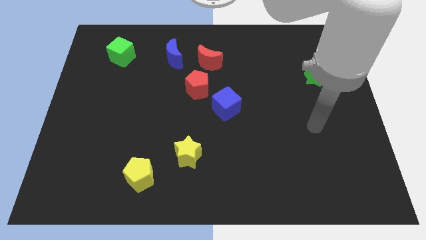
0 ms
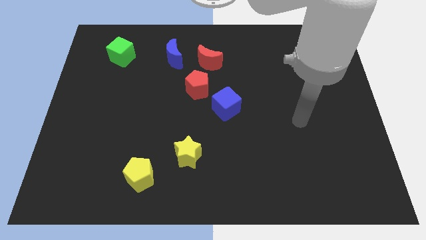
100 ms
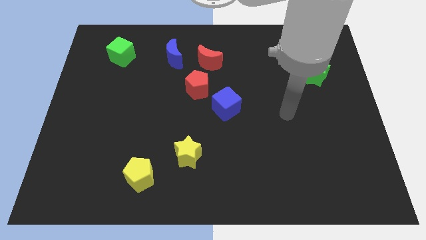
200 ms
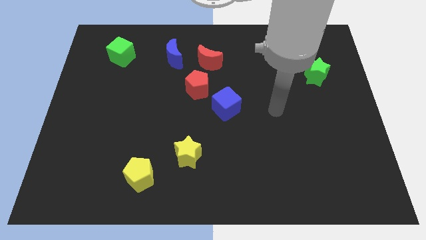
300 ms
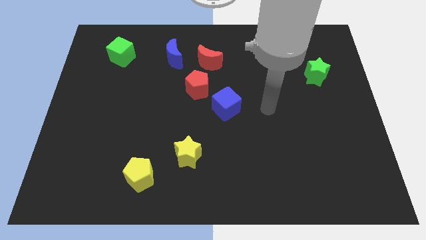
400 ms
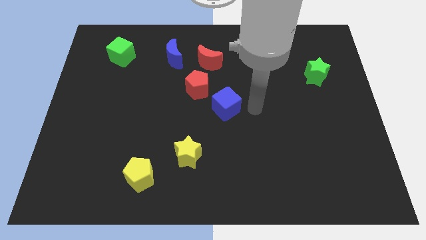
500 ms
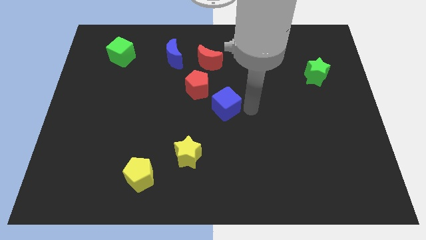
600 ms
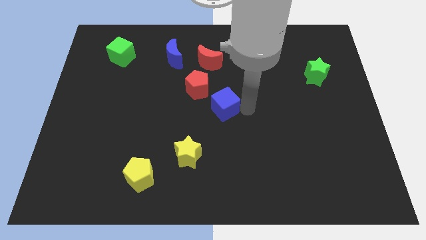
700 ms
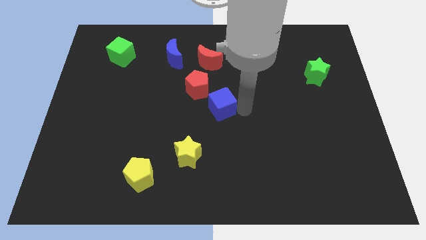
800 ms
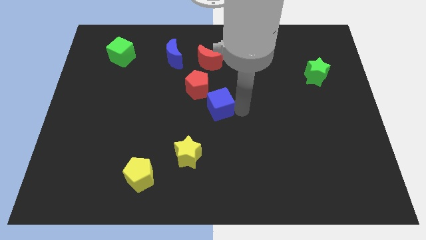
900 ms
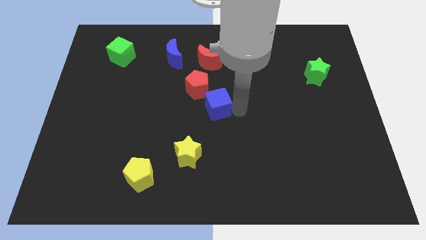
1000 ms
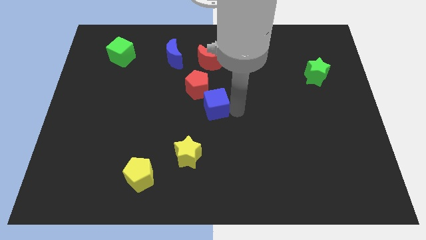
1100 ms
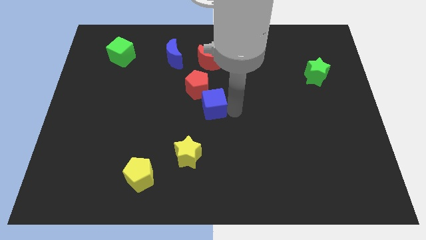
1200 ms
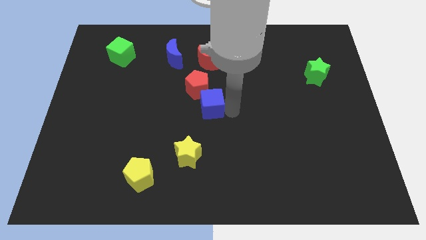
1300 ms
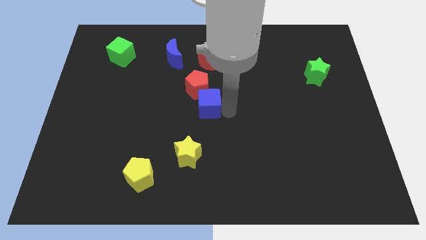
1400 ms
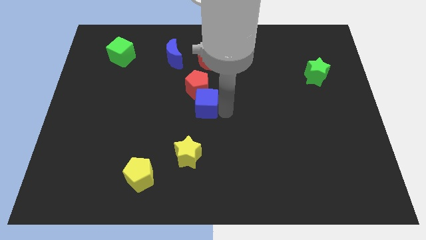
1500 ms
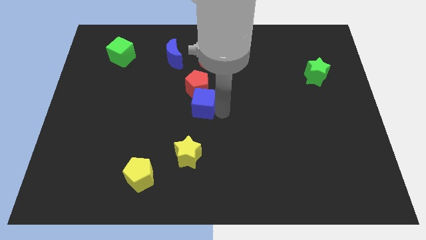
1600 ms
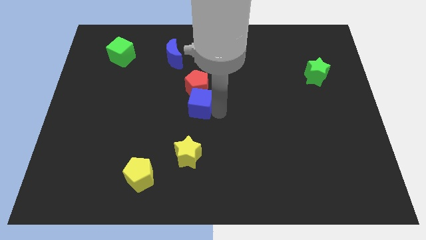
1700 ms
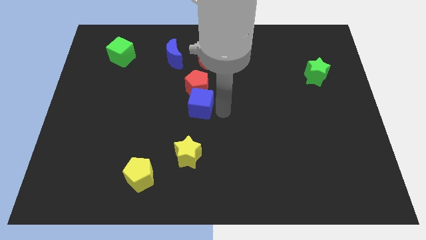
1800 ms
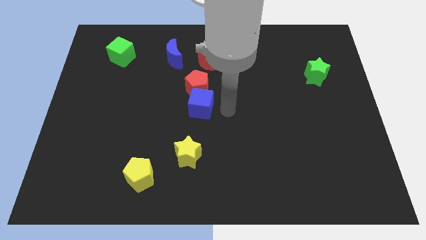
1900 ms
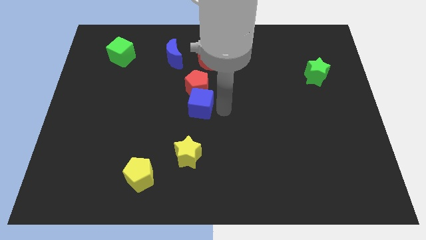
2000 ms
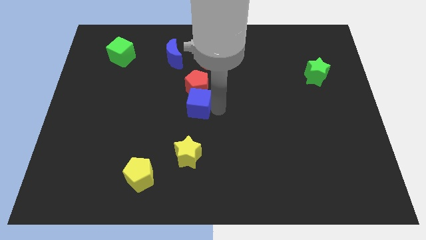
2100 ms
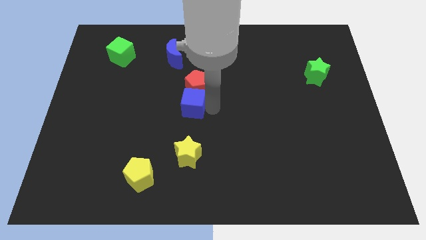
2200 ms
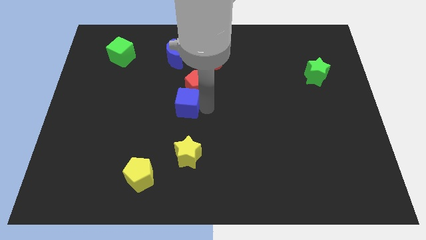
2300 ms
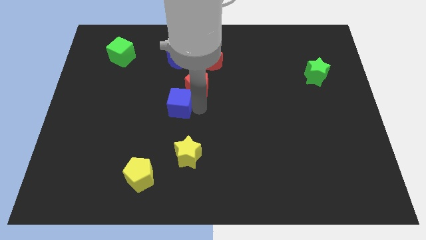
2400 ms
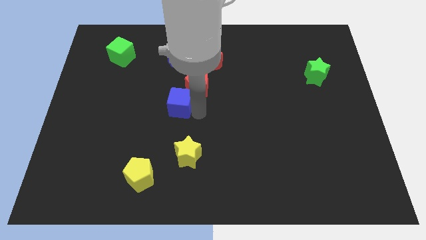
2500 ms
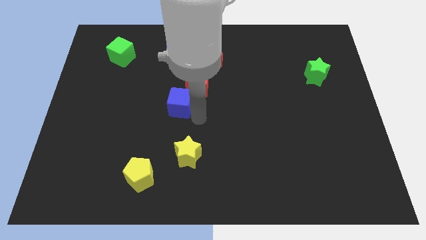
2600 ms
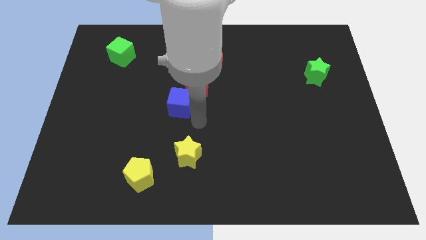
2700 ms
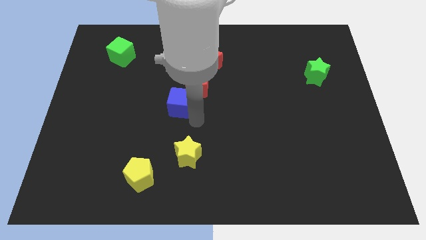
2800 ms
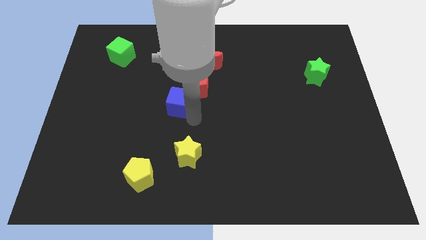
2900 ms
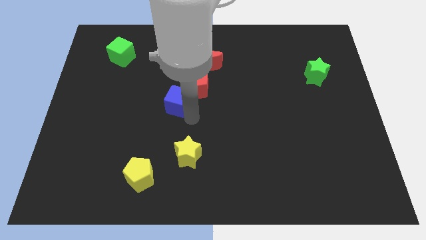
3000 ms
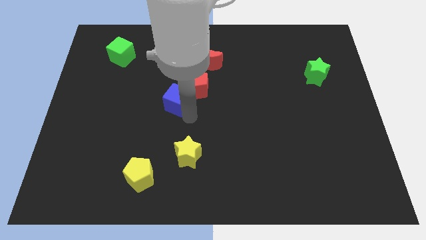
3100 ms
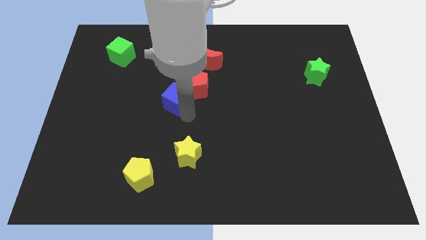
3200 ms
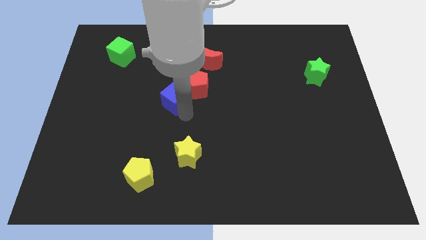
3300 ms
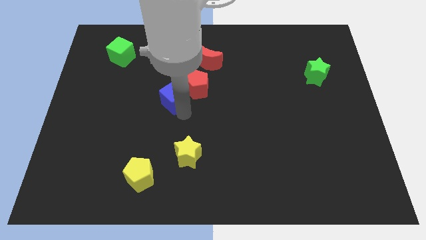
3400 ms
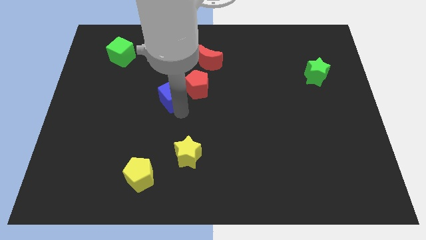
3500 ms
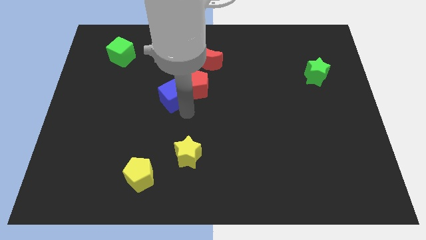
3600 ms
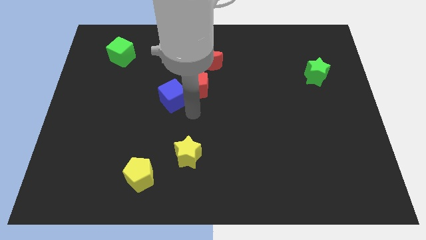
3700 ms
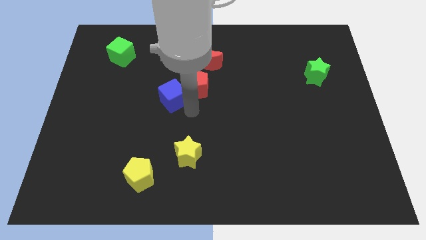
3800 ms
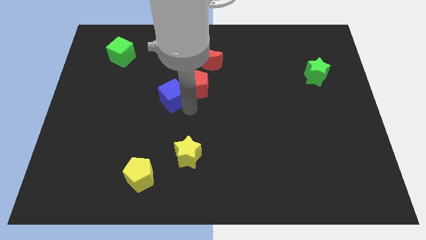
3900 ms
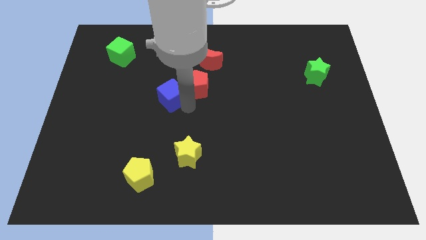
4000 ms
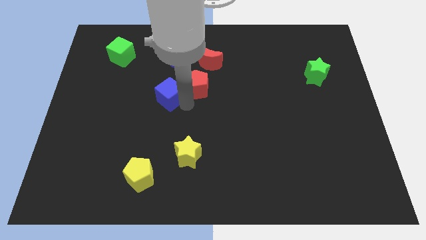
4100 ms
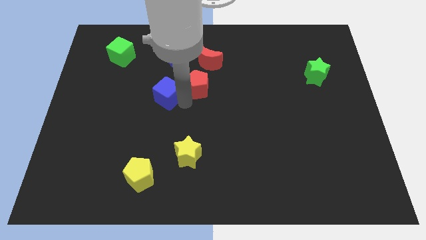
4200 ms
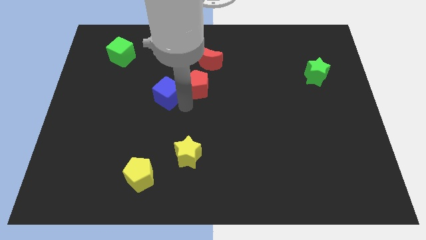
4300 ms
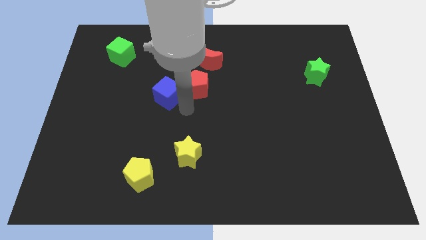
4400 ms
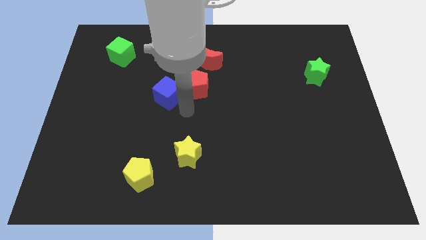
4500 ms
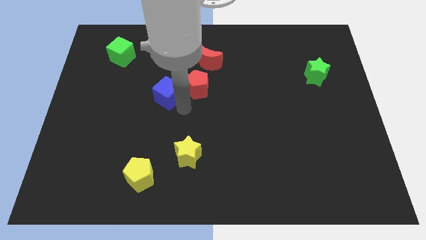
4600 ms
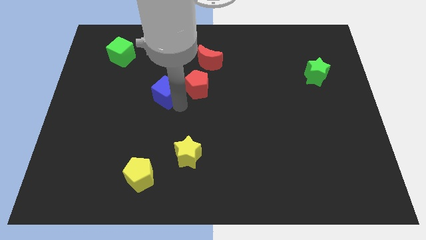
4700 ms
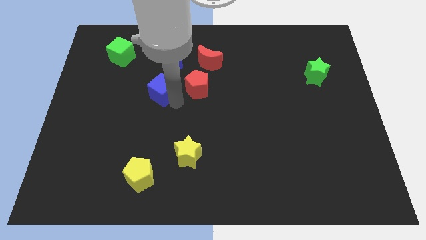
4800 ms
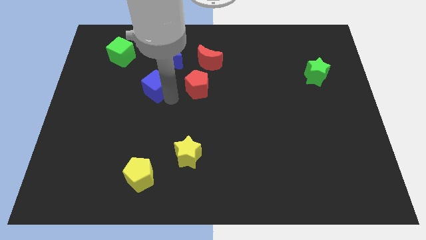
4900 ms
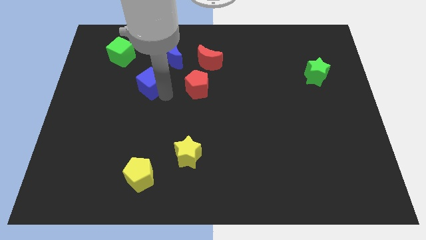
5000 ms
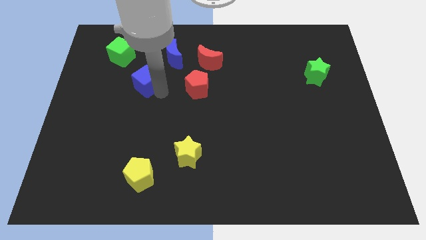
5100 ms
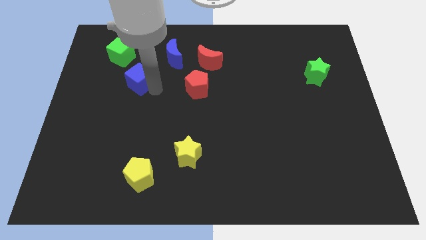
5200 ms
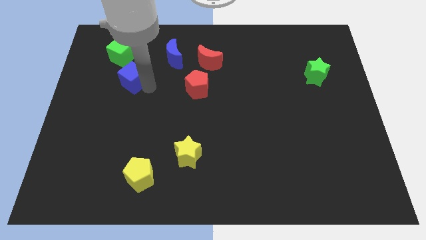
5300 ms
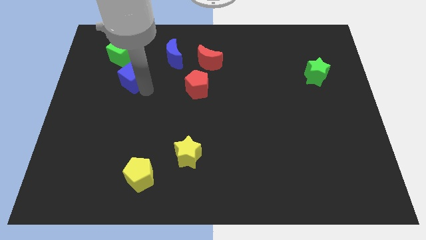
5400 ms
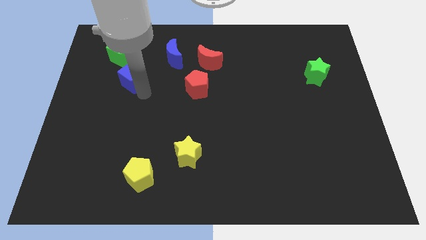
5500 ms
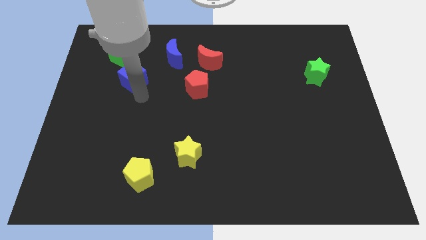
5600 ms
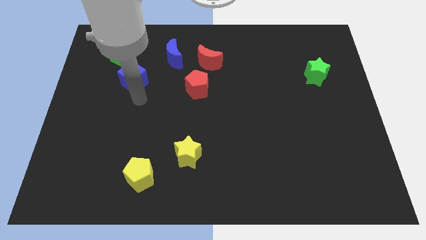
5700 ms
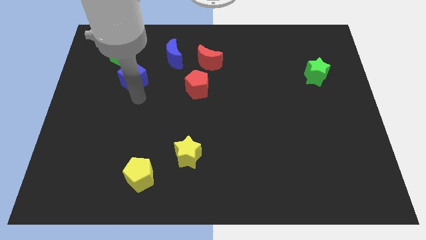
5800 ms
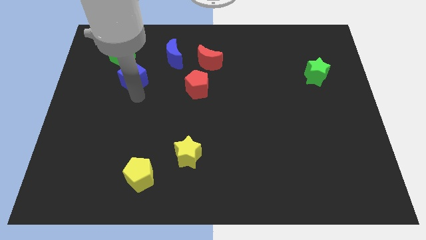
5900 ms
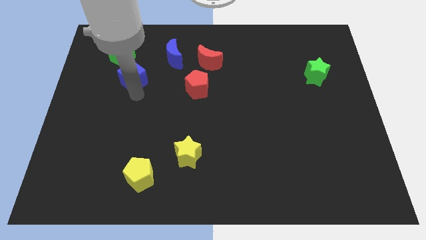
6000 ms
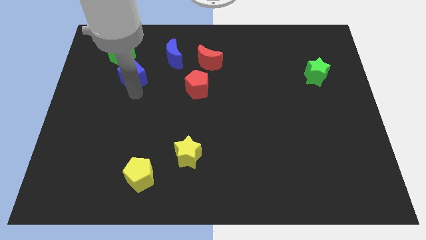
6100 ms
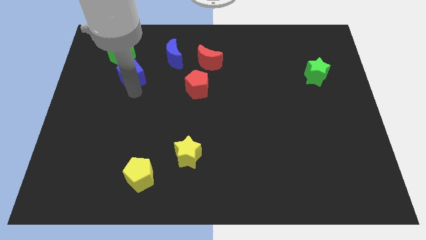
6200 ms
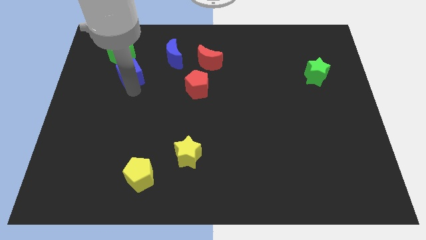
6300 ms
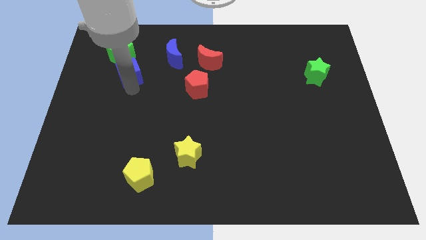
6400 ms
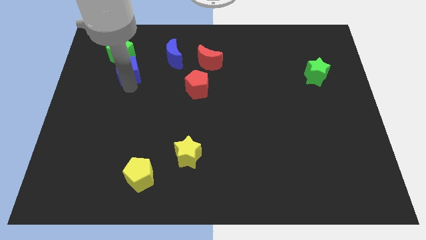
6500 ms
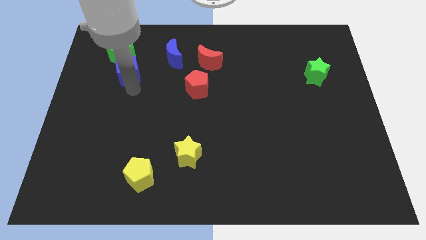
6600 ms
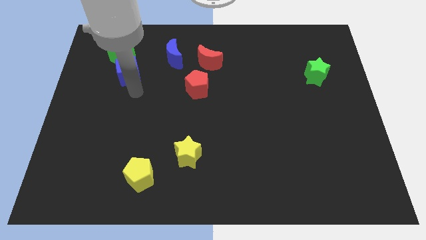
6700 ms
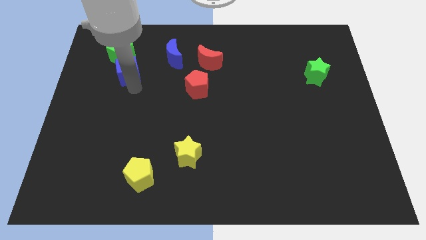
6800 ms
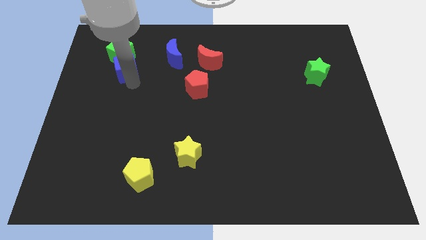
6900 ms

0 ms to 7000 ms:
put the blue cube close to the green cube

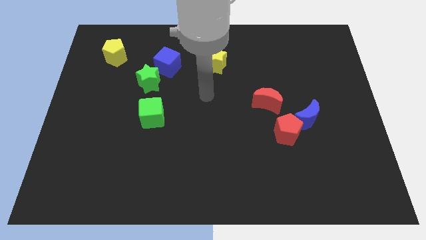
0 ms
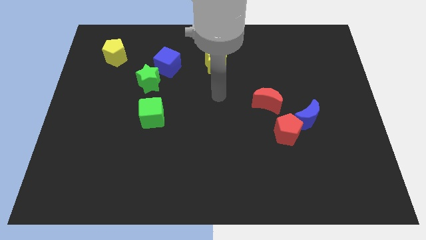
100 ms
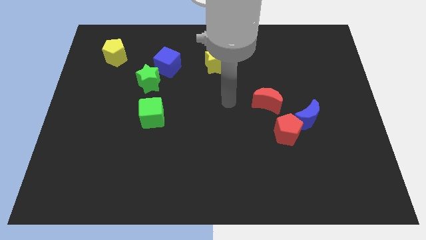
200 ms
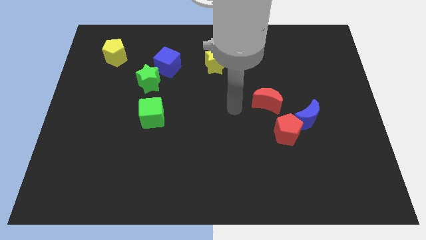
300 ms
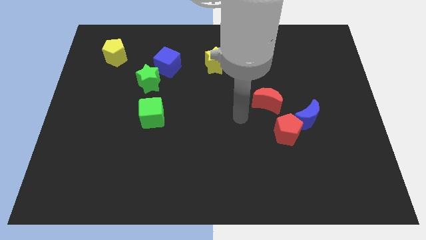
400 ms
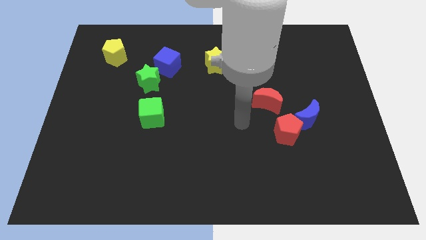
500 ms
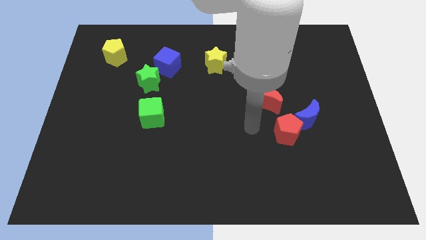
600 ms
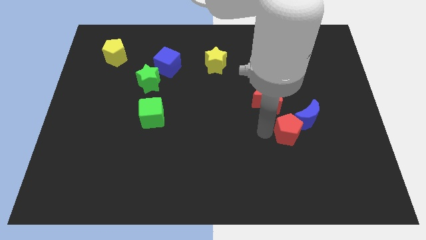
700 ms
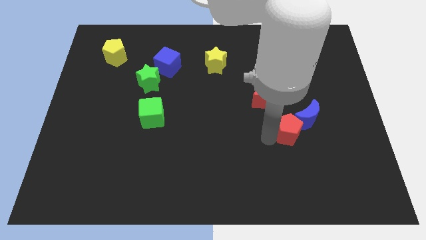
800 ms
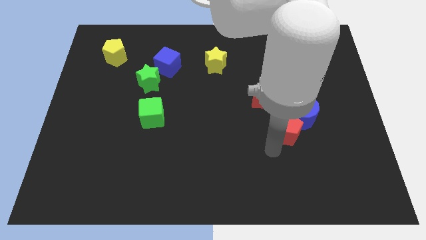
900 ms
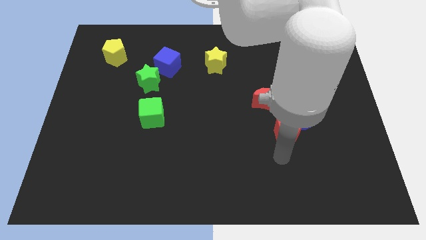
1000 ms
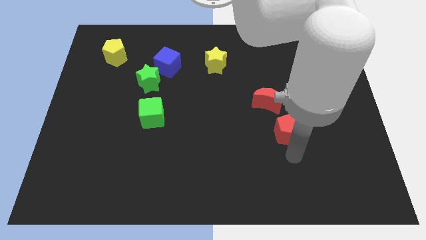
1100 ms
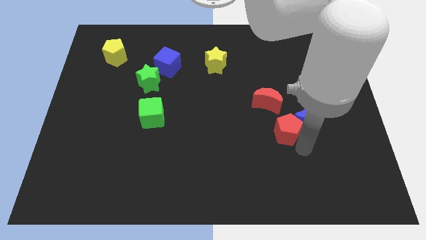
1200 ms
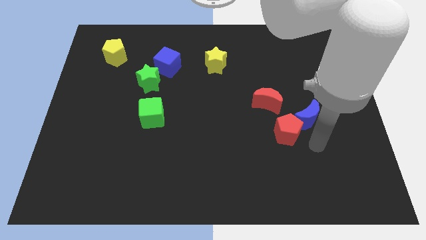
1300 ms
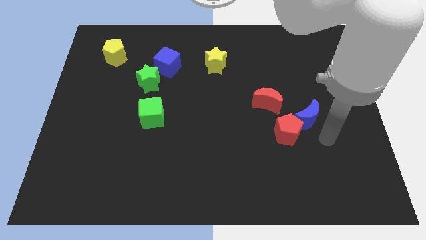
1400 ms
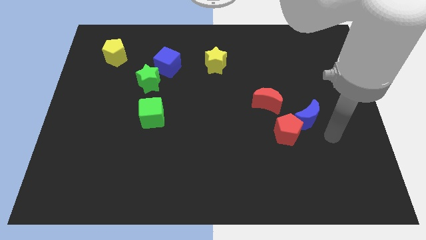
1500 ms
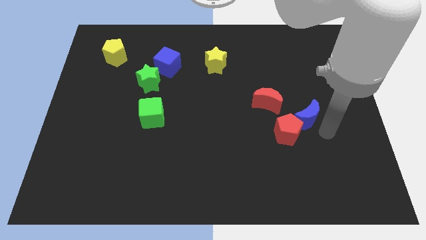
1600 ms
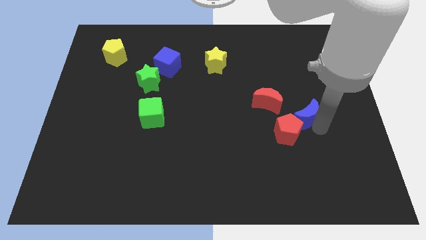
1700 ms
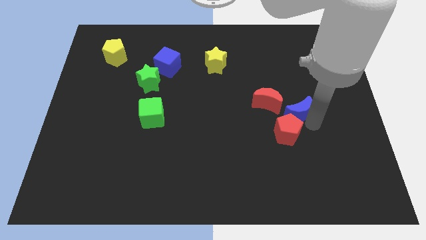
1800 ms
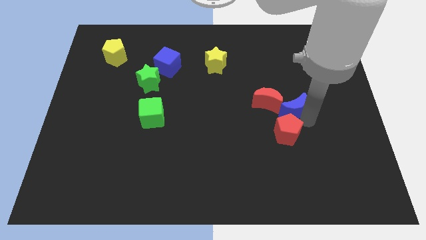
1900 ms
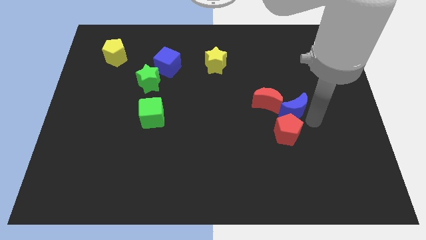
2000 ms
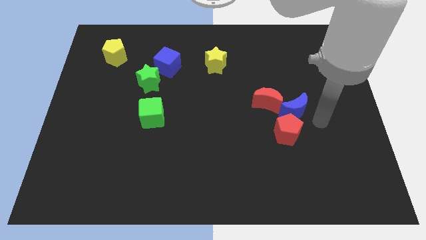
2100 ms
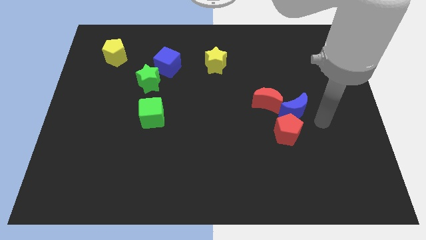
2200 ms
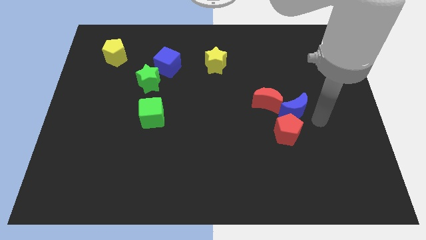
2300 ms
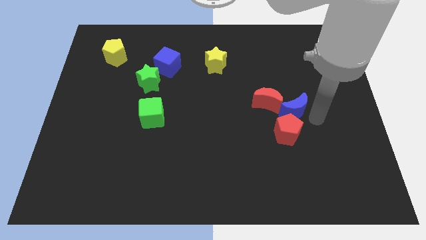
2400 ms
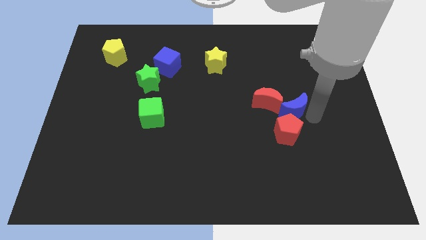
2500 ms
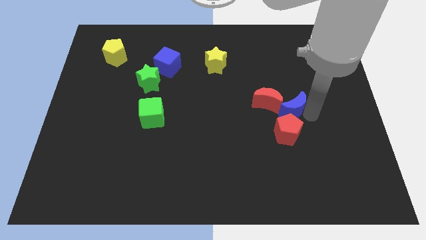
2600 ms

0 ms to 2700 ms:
put the blue moon towards the red moon
